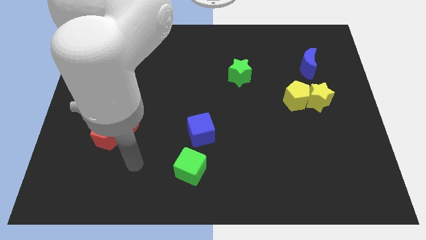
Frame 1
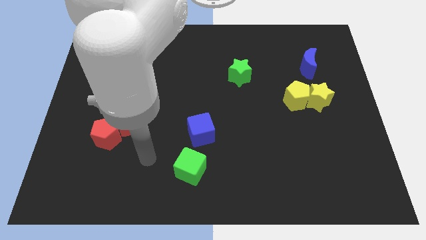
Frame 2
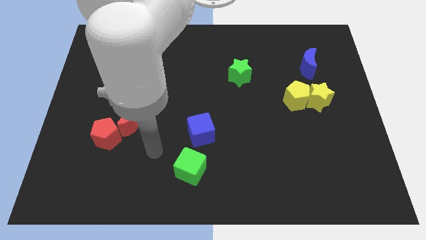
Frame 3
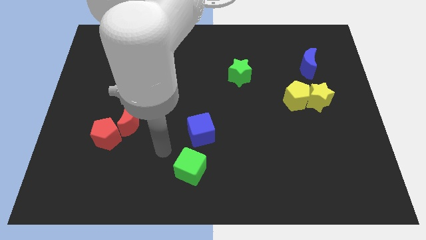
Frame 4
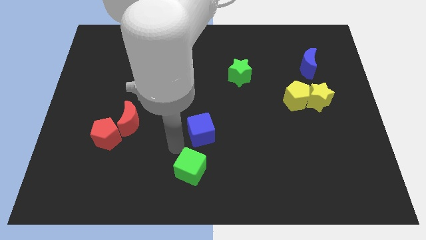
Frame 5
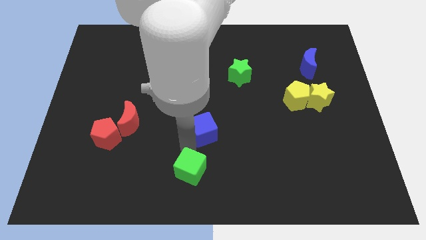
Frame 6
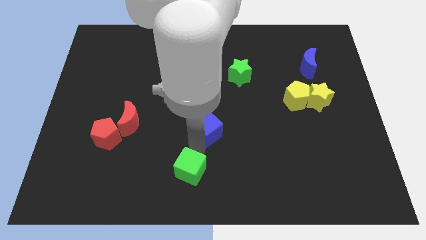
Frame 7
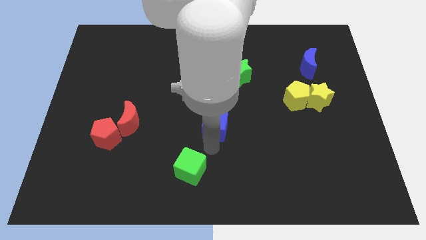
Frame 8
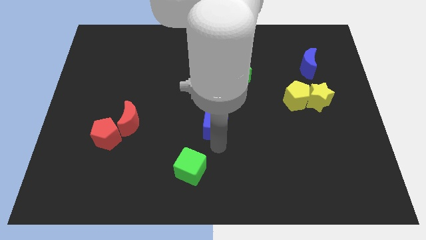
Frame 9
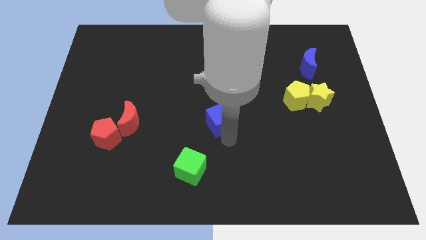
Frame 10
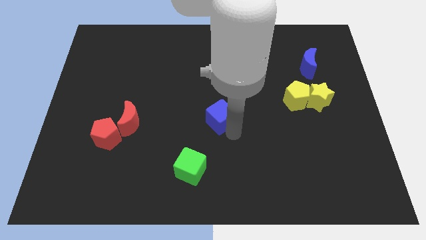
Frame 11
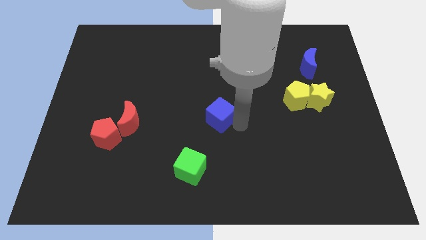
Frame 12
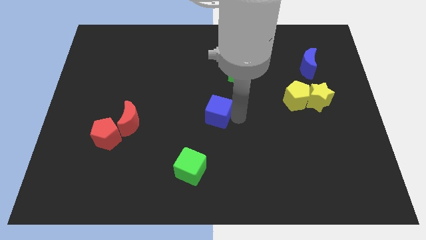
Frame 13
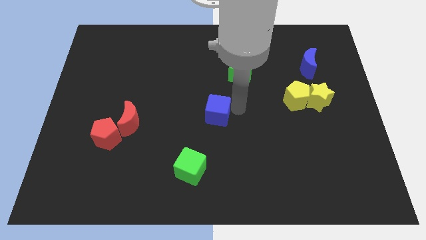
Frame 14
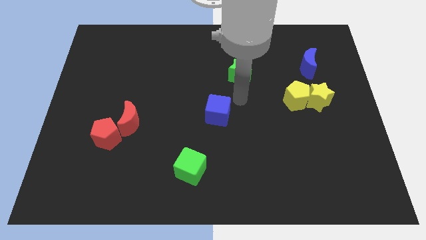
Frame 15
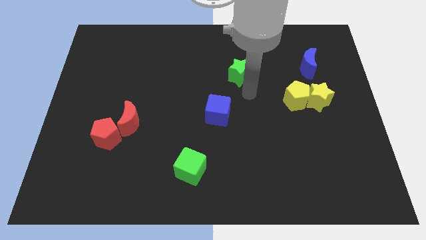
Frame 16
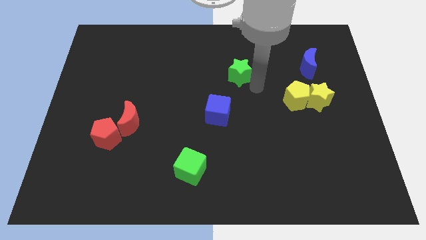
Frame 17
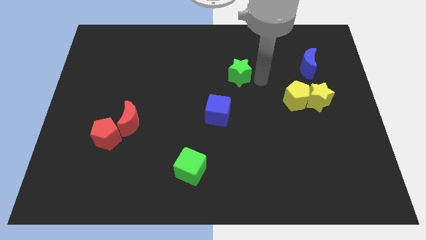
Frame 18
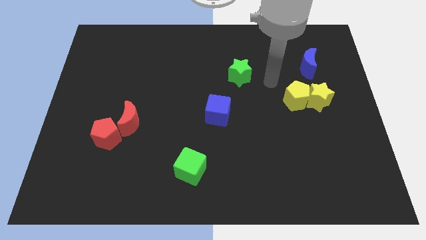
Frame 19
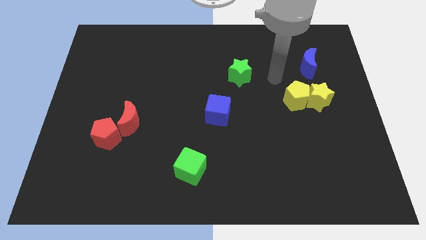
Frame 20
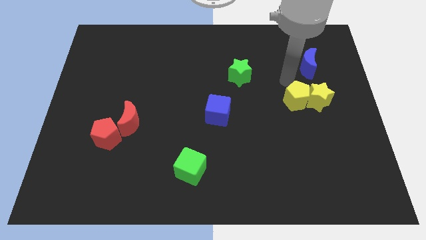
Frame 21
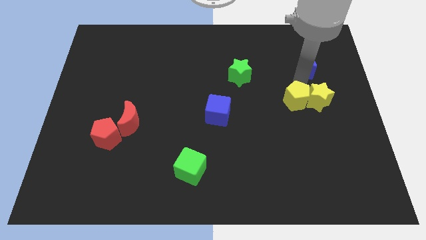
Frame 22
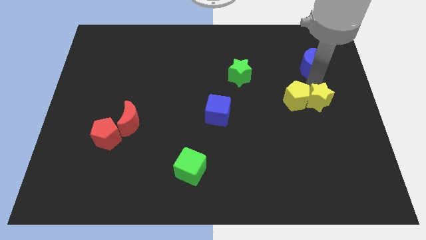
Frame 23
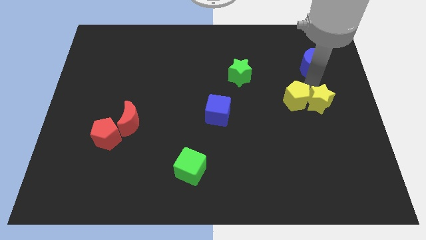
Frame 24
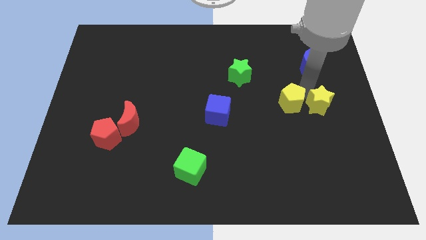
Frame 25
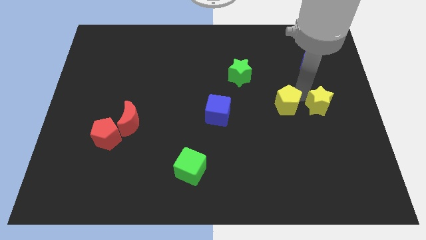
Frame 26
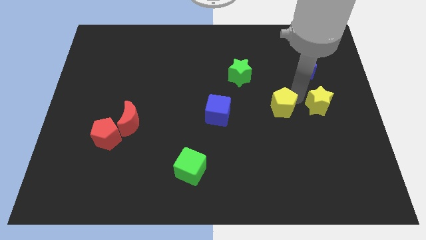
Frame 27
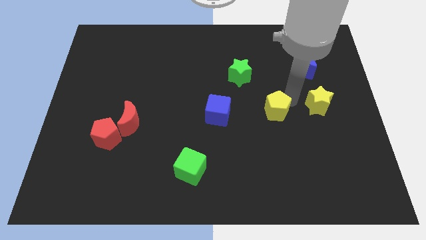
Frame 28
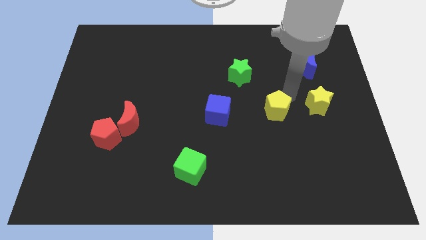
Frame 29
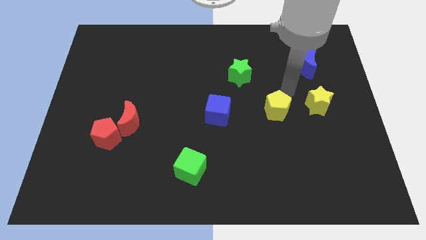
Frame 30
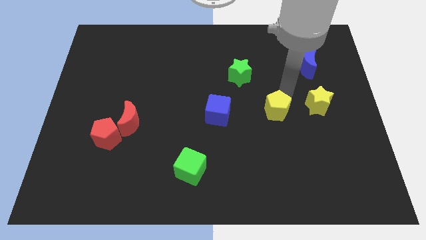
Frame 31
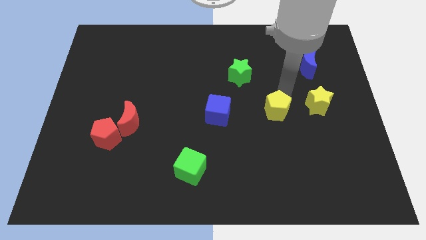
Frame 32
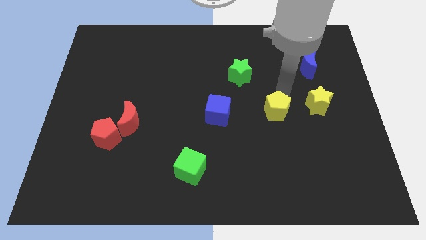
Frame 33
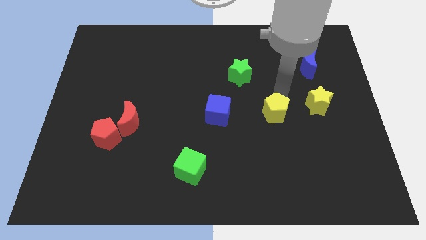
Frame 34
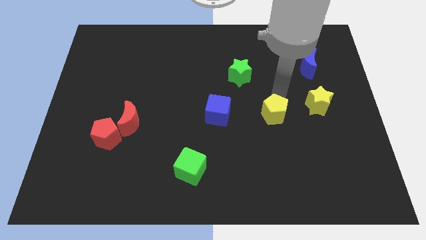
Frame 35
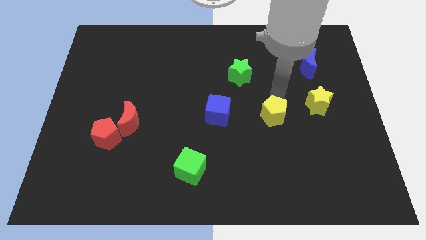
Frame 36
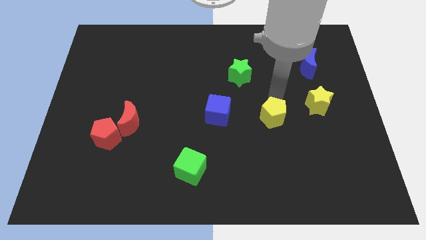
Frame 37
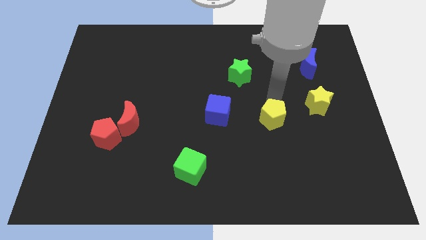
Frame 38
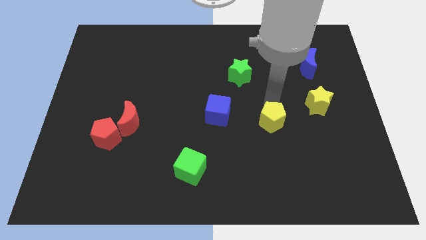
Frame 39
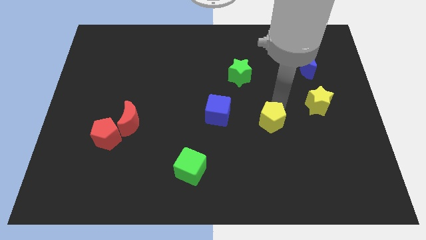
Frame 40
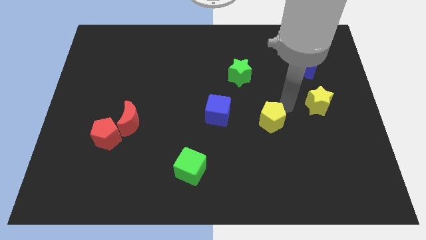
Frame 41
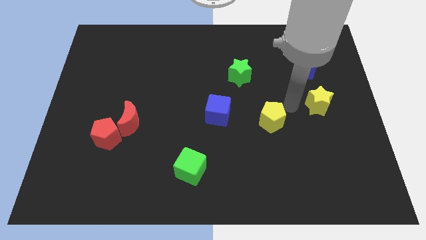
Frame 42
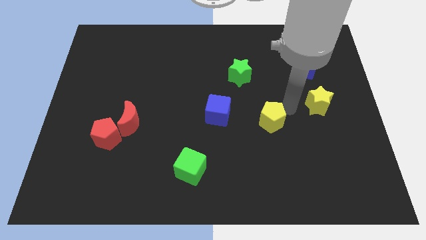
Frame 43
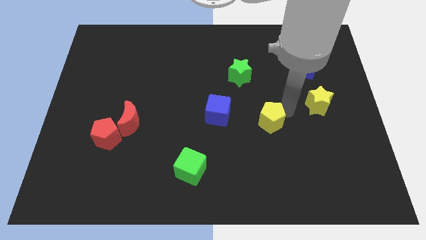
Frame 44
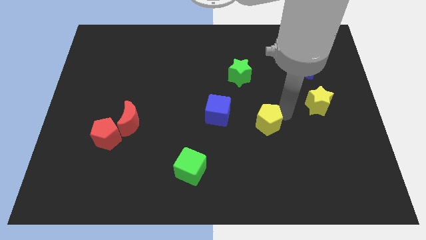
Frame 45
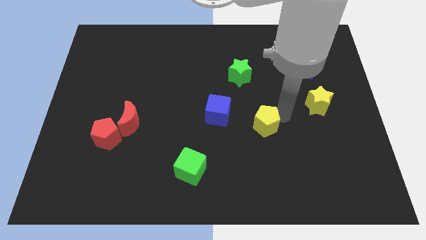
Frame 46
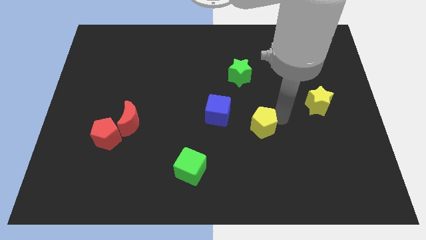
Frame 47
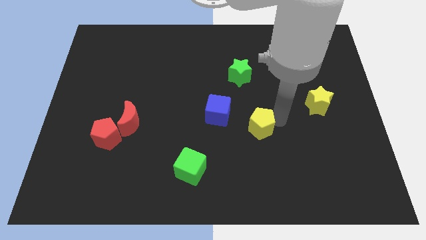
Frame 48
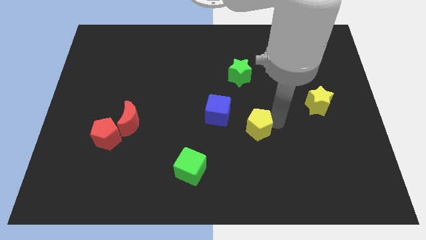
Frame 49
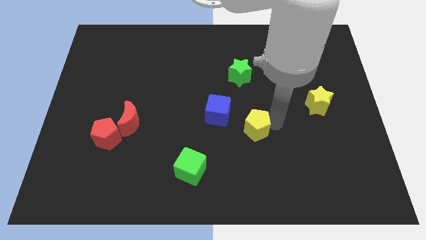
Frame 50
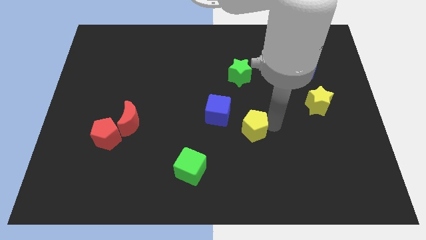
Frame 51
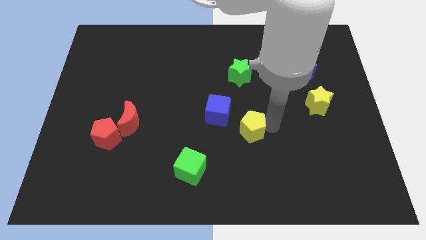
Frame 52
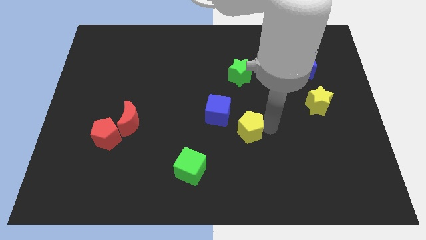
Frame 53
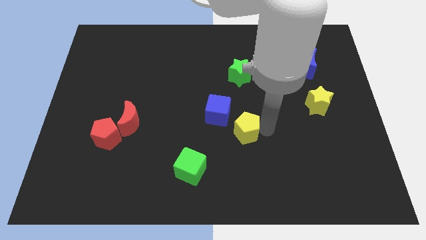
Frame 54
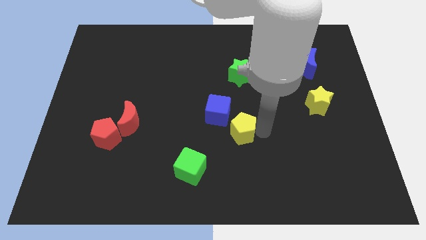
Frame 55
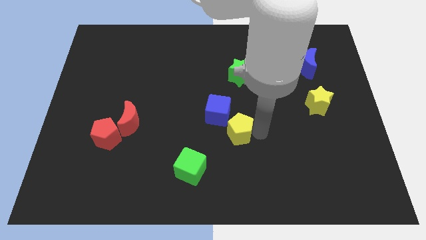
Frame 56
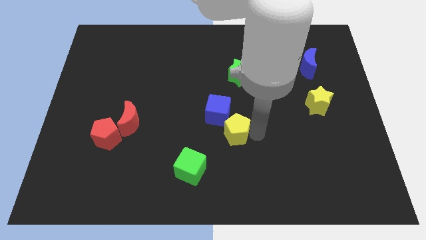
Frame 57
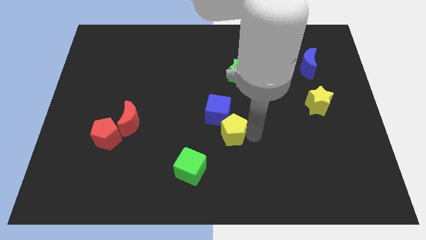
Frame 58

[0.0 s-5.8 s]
put the yellow pentagon to the top right side of the green cube
